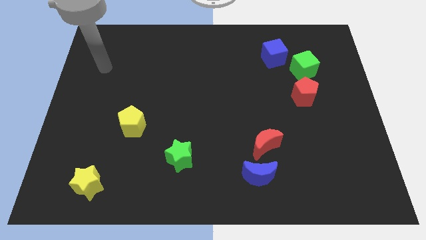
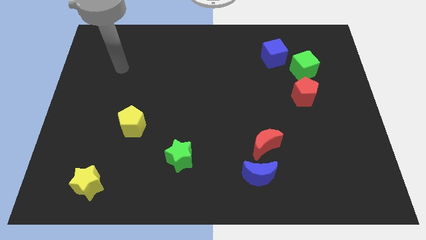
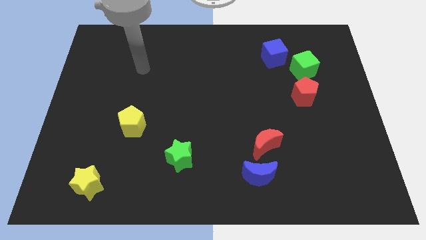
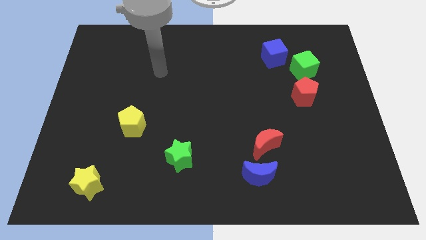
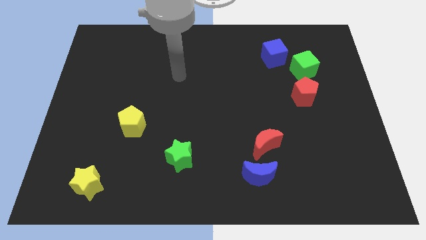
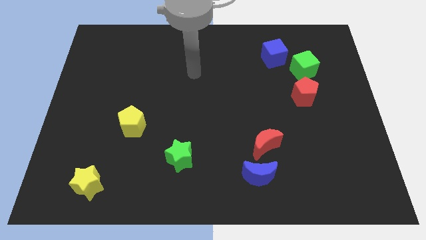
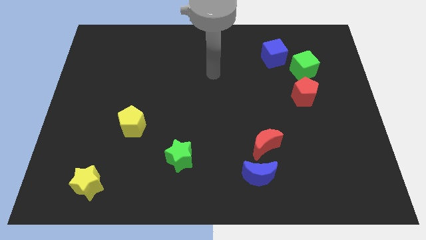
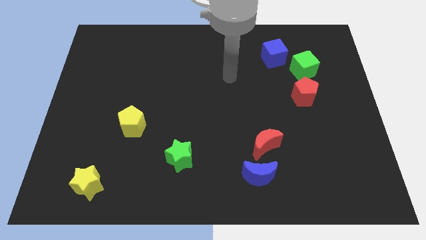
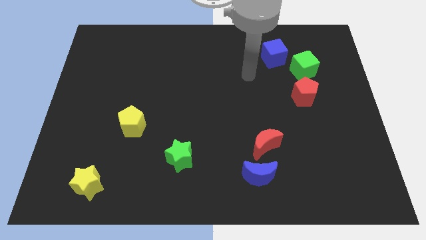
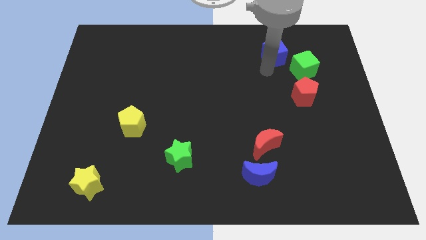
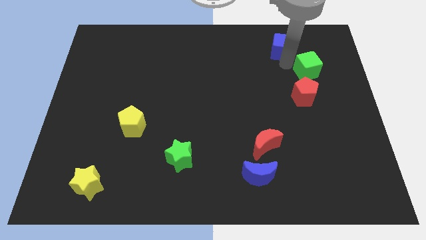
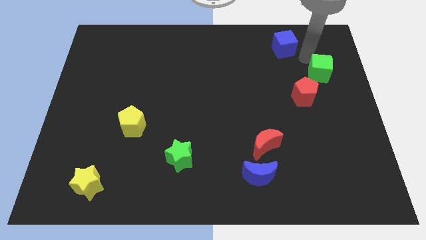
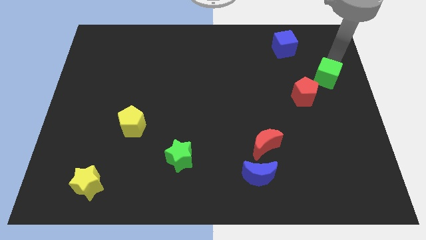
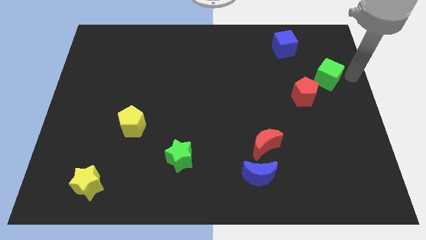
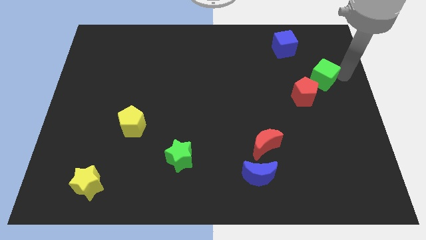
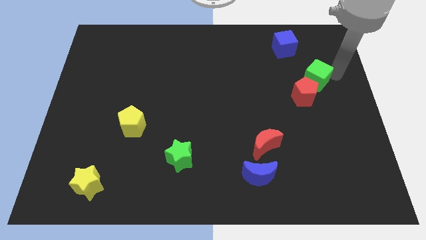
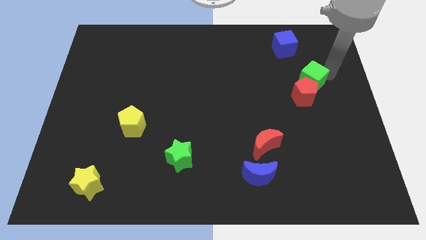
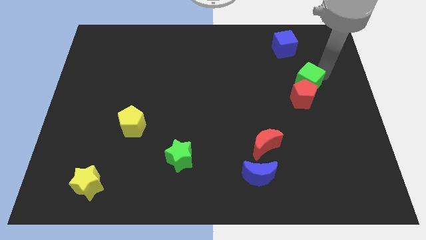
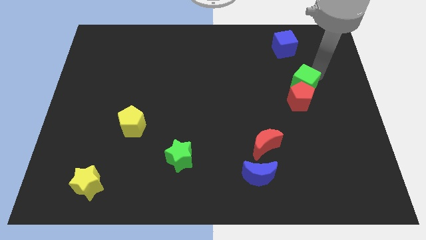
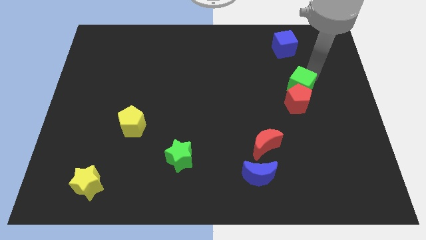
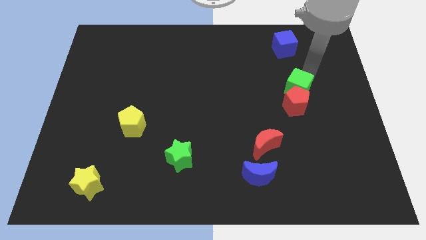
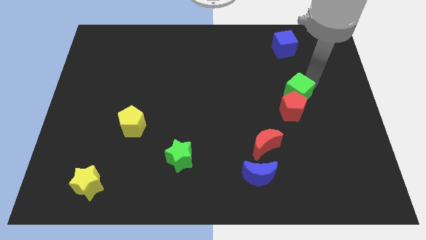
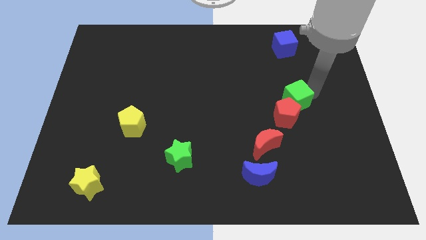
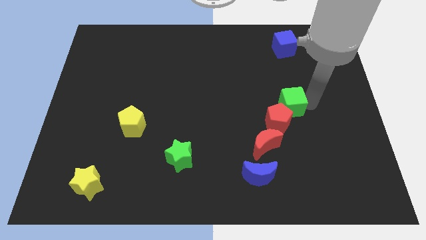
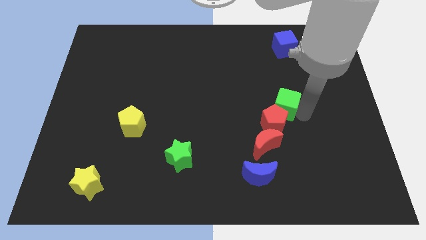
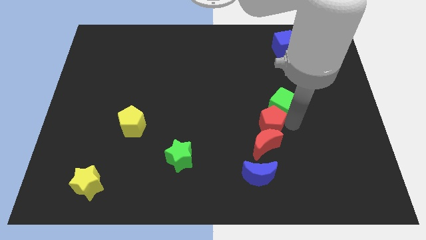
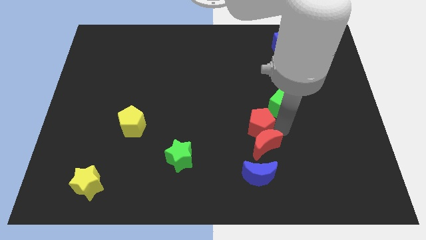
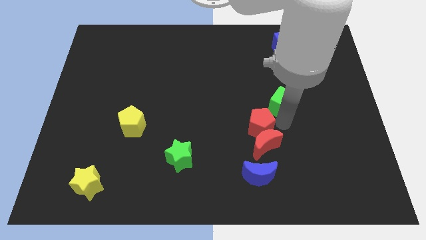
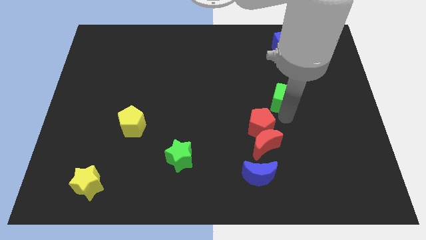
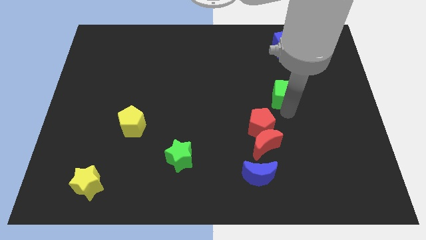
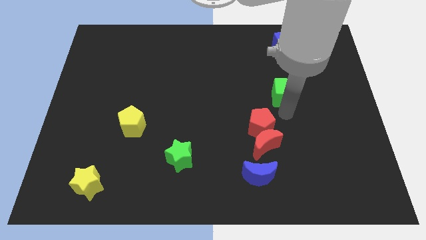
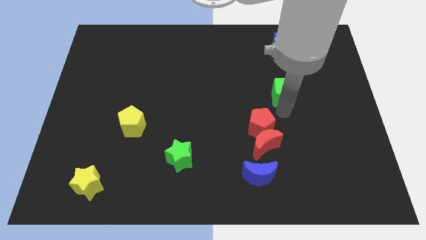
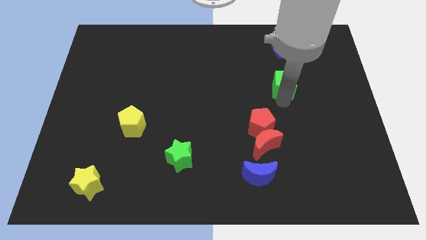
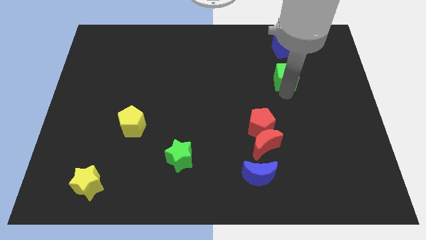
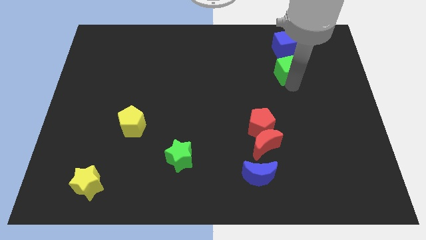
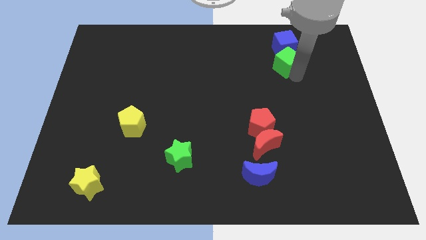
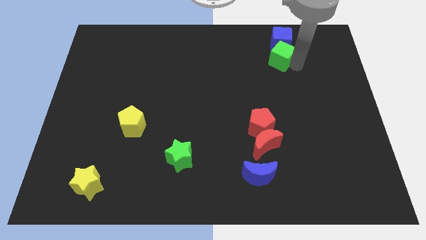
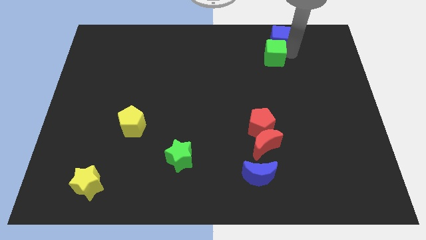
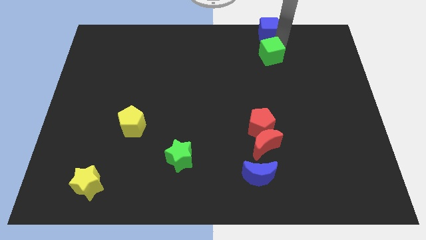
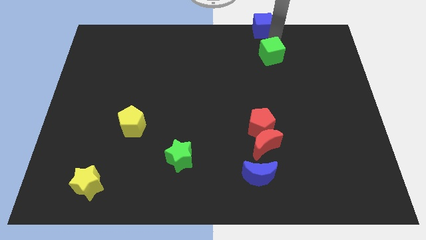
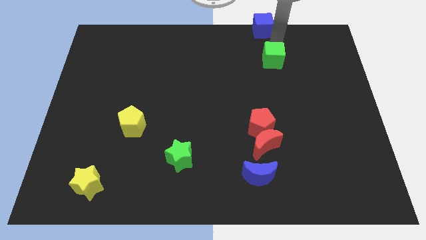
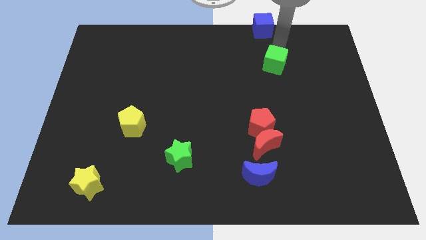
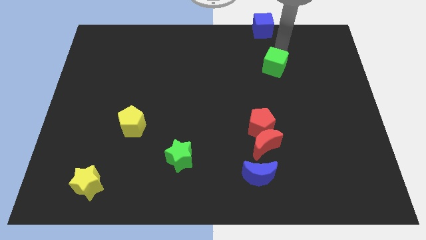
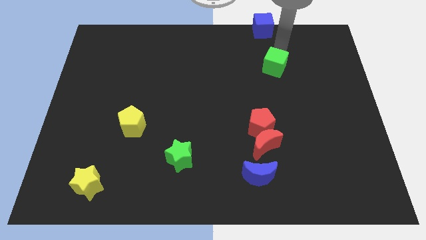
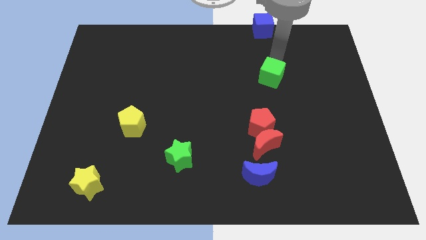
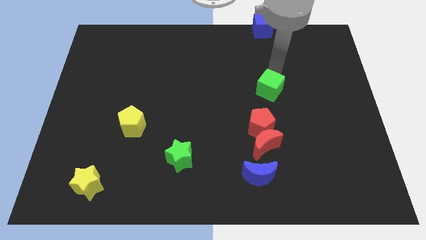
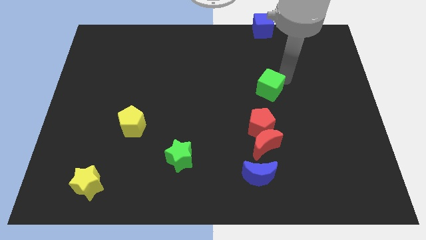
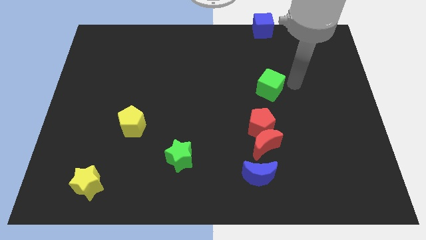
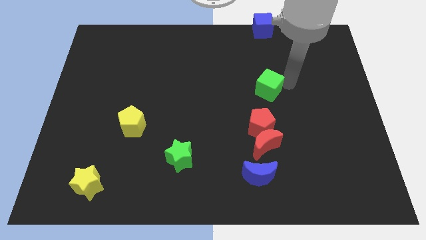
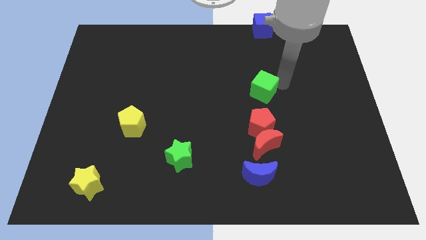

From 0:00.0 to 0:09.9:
push the green cube to the middle of the board
